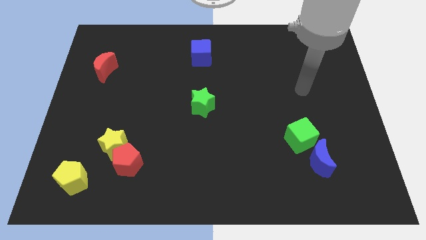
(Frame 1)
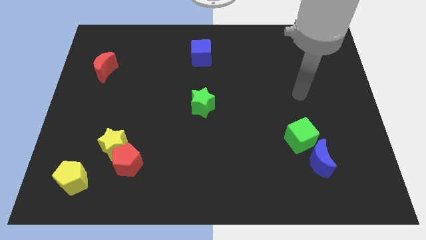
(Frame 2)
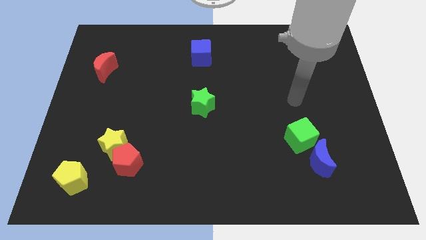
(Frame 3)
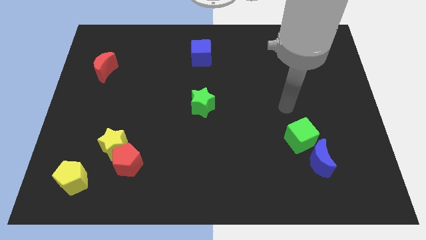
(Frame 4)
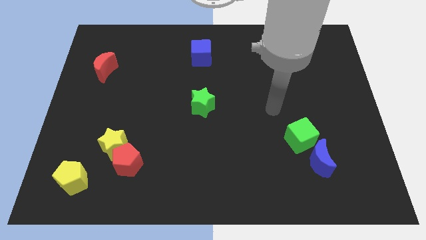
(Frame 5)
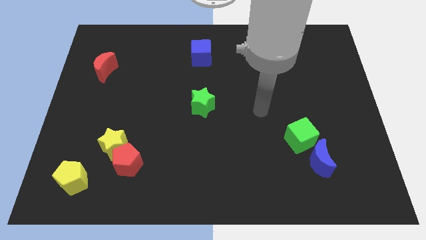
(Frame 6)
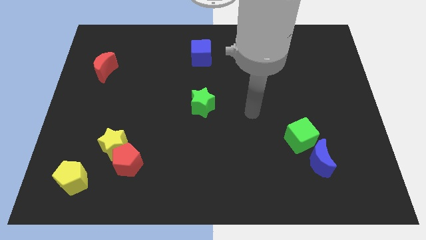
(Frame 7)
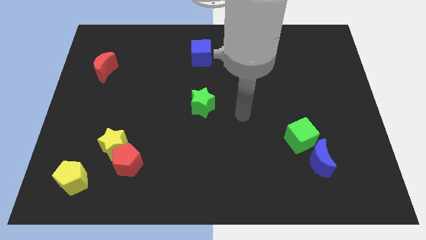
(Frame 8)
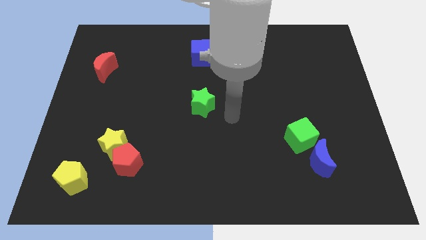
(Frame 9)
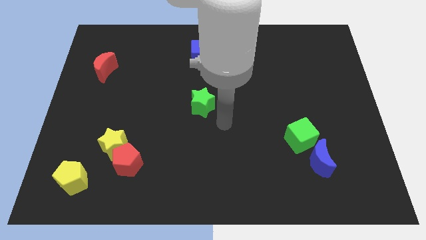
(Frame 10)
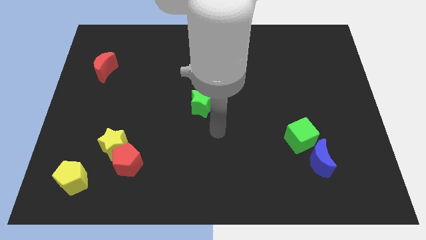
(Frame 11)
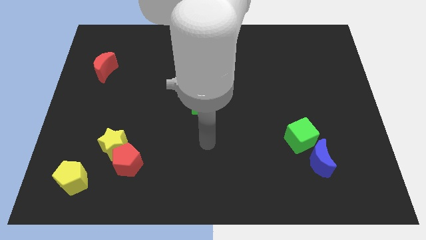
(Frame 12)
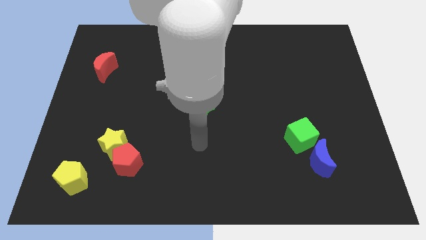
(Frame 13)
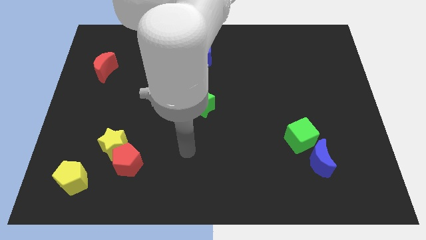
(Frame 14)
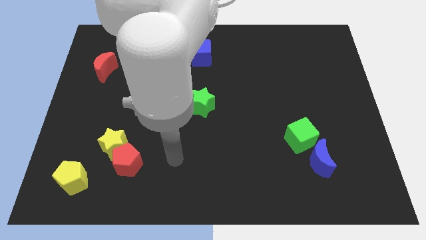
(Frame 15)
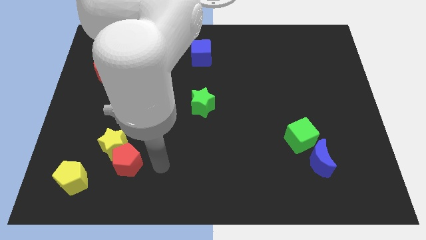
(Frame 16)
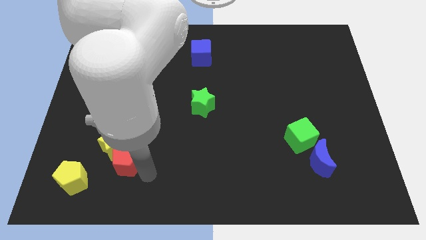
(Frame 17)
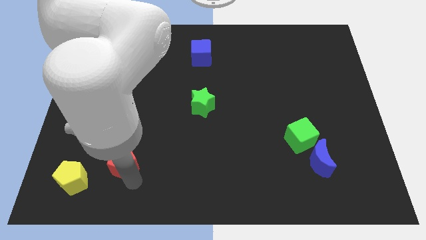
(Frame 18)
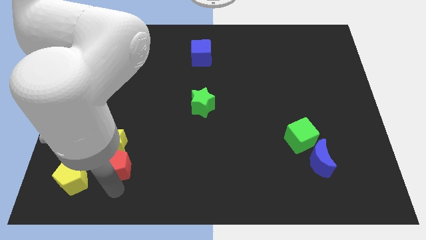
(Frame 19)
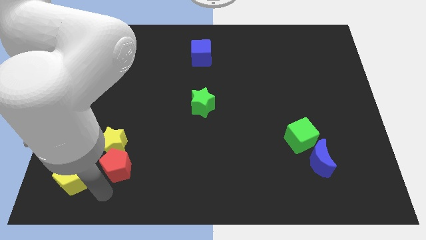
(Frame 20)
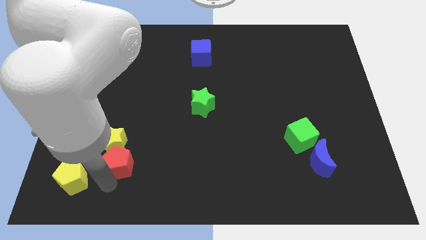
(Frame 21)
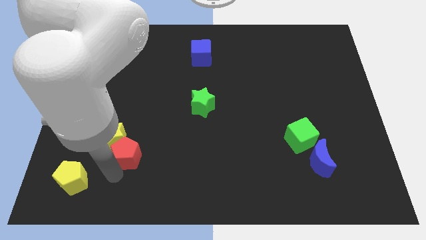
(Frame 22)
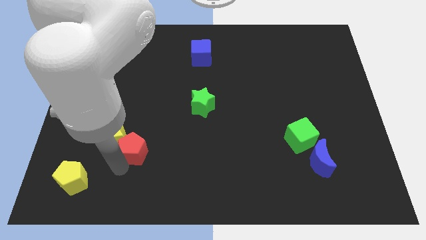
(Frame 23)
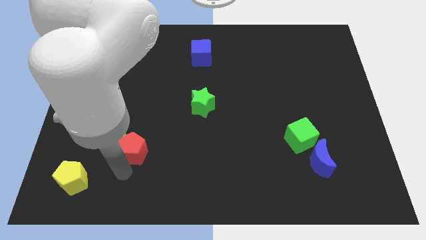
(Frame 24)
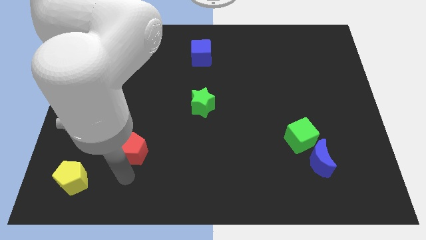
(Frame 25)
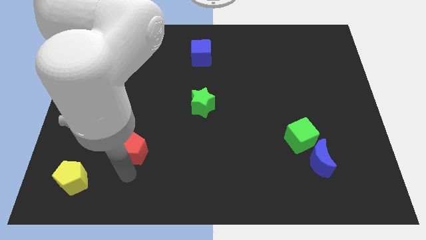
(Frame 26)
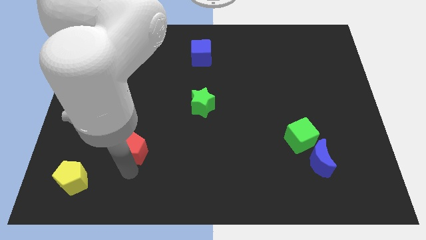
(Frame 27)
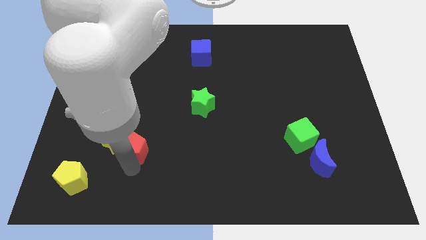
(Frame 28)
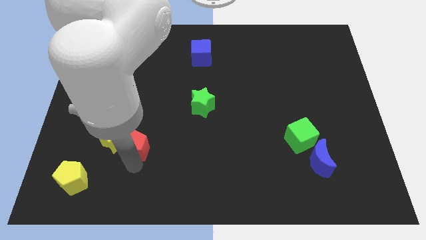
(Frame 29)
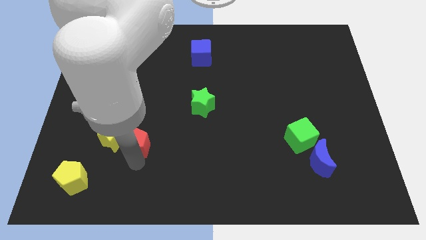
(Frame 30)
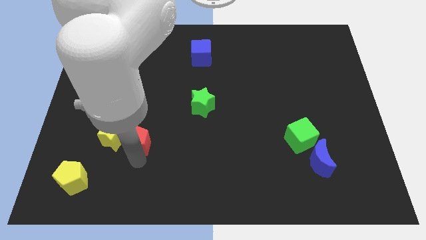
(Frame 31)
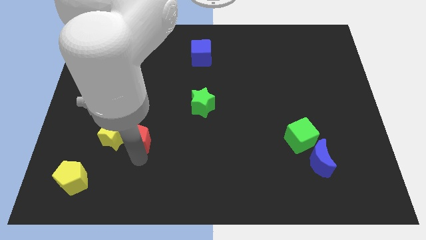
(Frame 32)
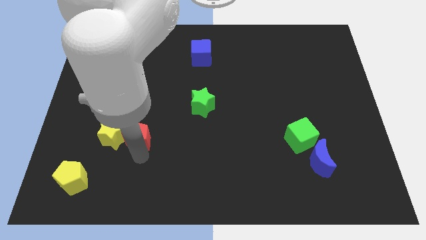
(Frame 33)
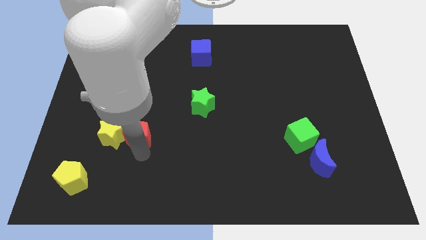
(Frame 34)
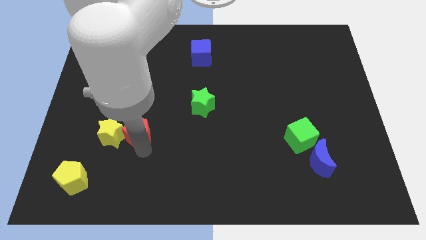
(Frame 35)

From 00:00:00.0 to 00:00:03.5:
slide the red pentagon a bit upwards

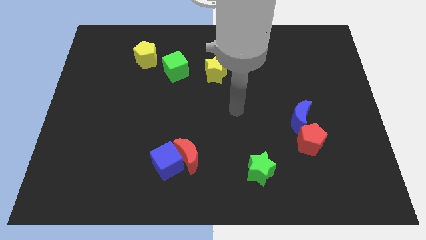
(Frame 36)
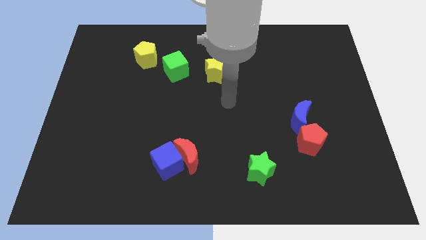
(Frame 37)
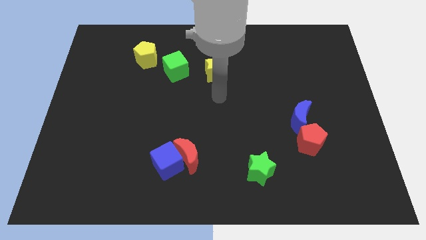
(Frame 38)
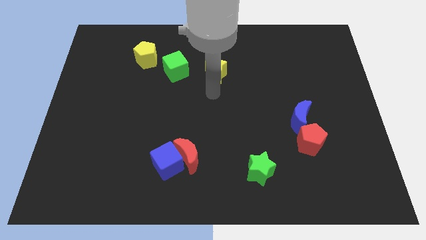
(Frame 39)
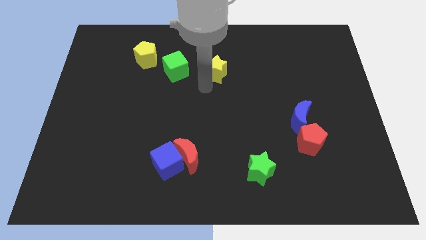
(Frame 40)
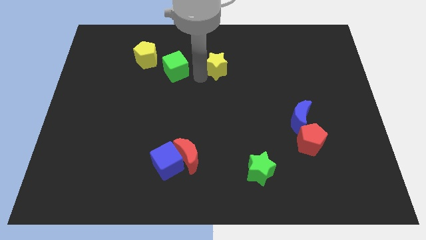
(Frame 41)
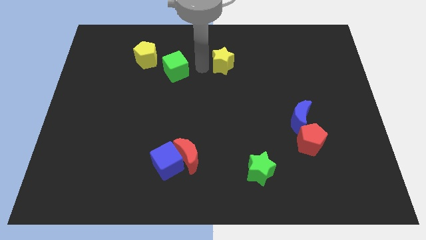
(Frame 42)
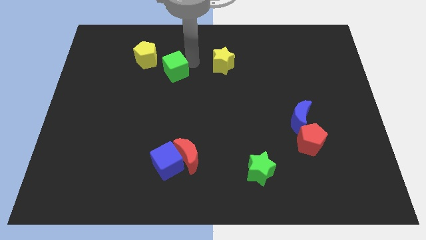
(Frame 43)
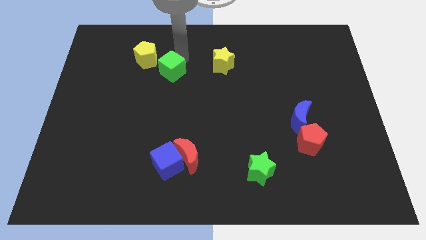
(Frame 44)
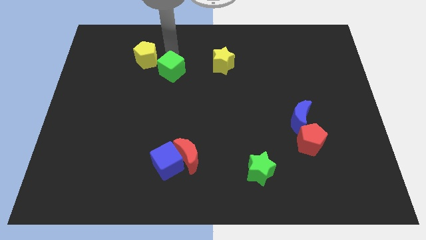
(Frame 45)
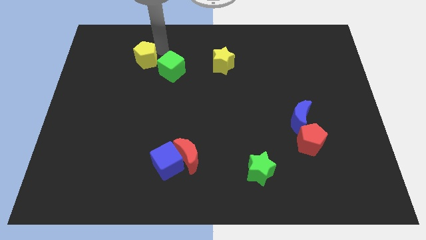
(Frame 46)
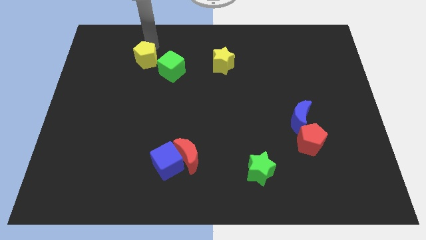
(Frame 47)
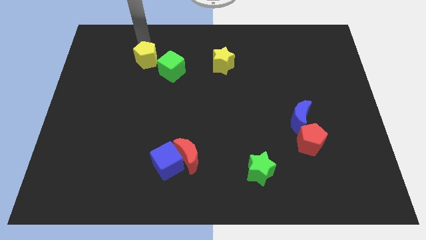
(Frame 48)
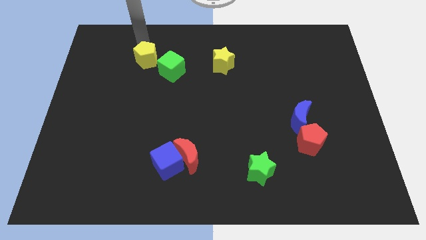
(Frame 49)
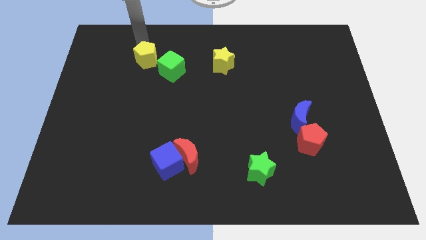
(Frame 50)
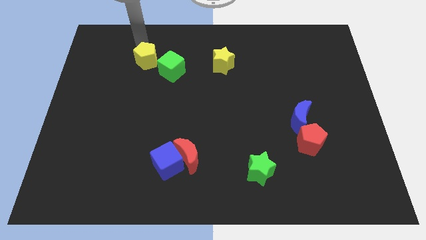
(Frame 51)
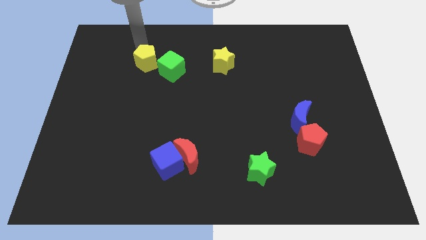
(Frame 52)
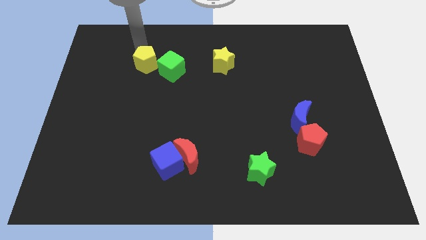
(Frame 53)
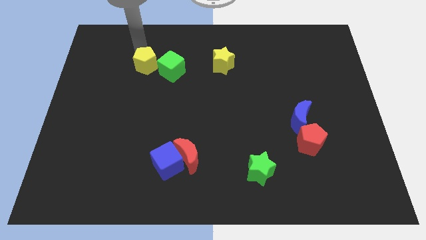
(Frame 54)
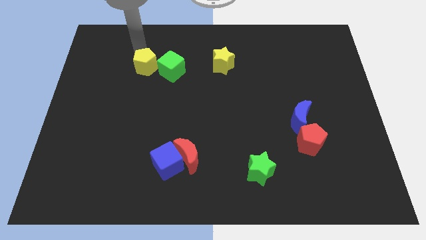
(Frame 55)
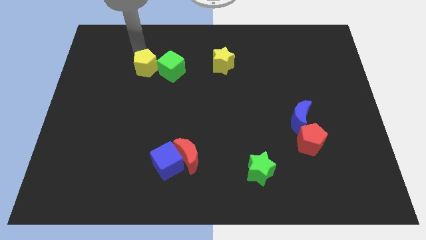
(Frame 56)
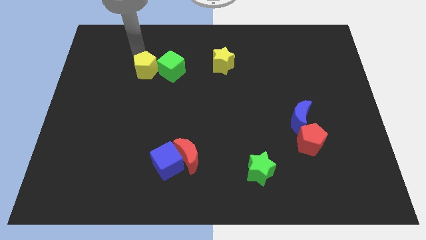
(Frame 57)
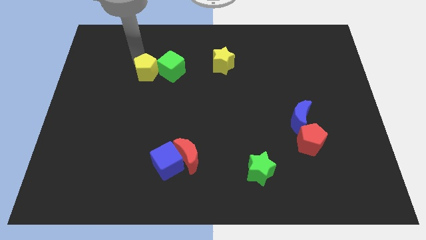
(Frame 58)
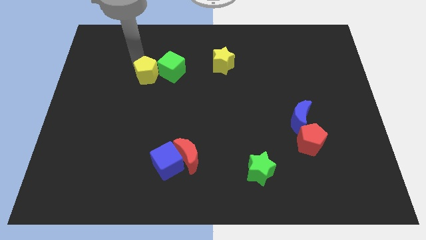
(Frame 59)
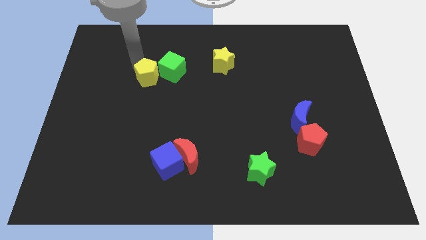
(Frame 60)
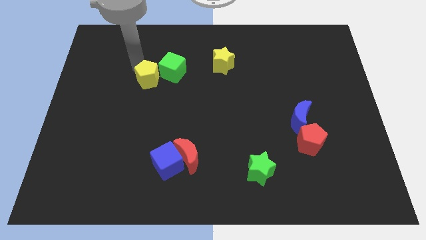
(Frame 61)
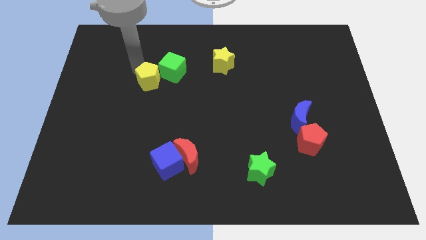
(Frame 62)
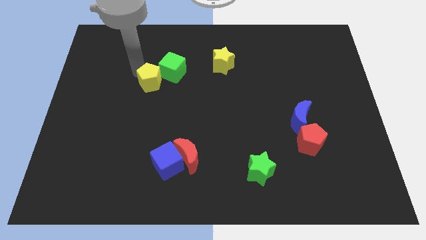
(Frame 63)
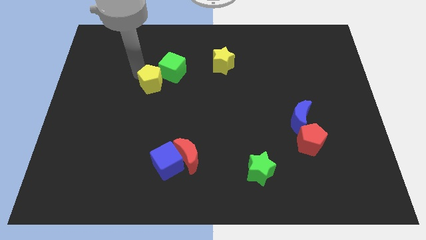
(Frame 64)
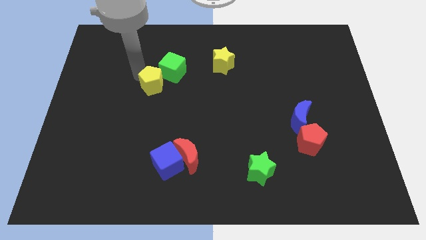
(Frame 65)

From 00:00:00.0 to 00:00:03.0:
slide the yellow pentagon somewhat down and right diagonally

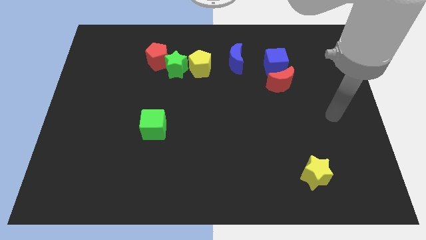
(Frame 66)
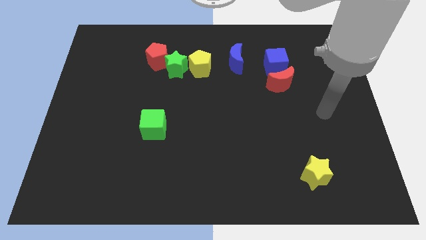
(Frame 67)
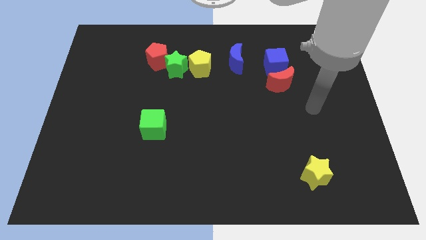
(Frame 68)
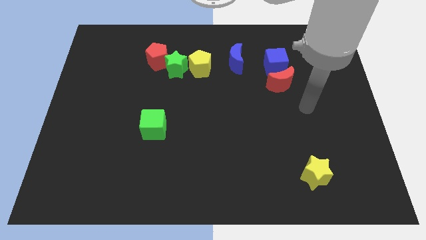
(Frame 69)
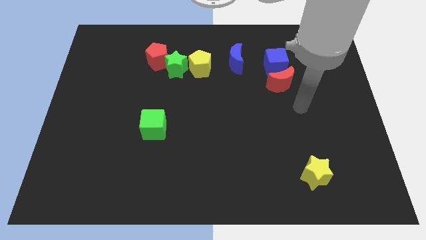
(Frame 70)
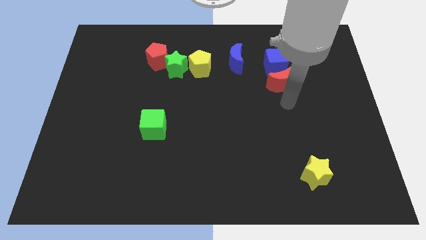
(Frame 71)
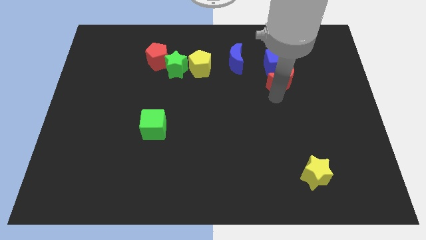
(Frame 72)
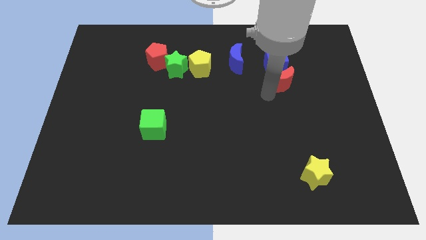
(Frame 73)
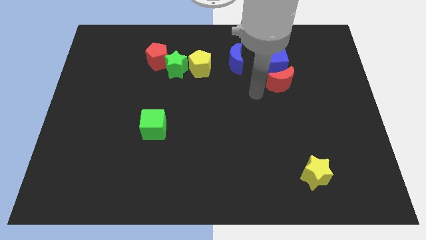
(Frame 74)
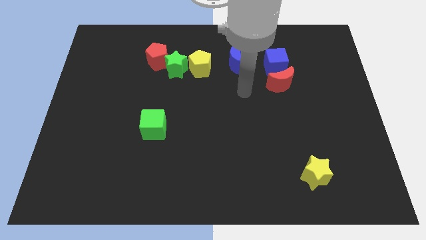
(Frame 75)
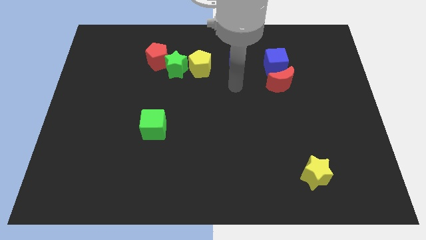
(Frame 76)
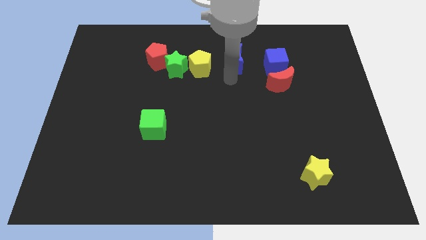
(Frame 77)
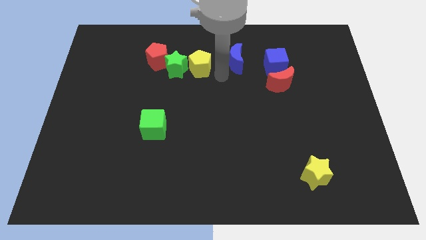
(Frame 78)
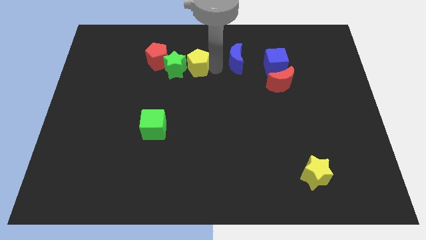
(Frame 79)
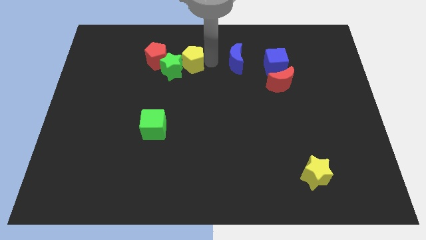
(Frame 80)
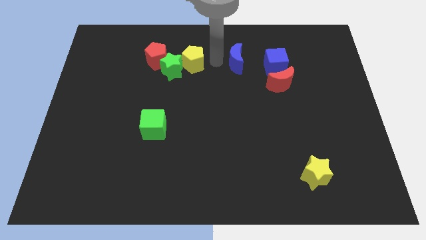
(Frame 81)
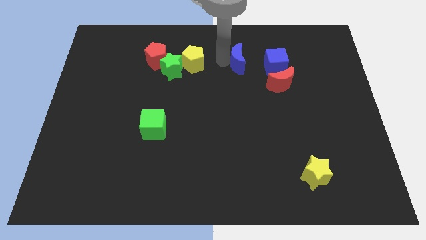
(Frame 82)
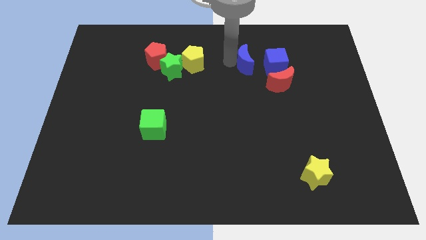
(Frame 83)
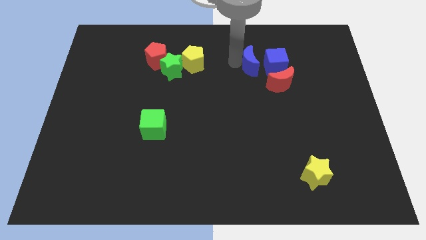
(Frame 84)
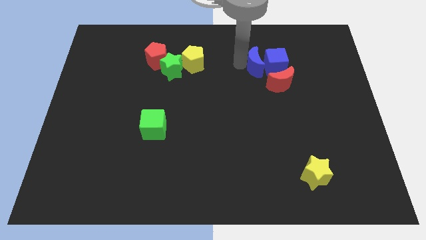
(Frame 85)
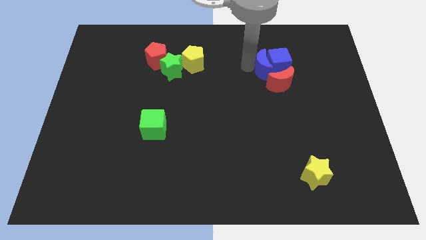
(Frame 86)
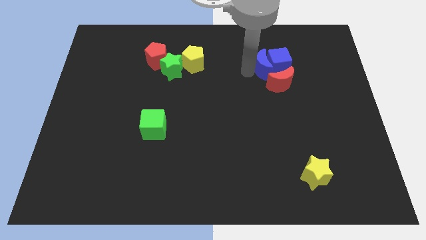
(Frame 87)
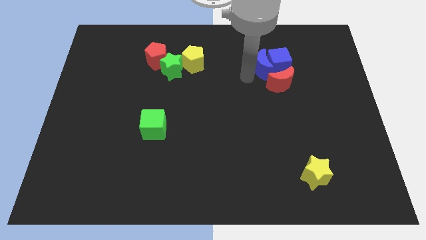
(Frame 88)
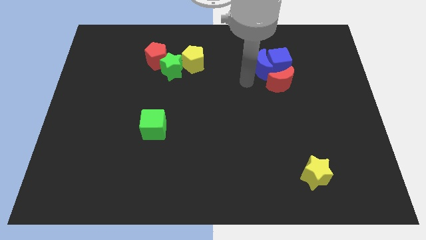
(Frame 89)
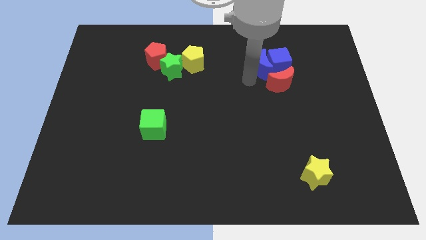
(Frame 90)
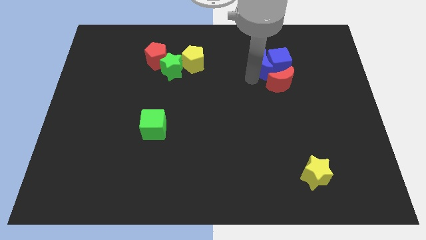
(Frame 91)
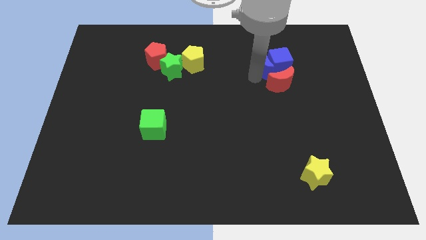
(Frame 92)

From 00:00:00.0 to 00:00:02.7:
move the blue moon somewhat right
